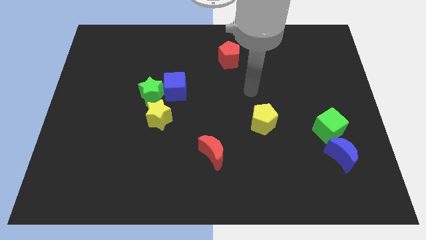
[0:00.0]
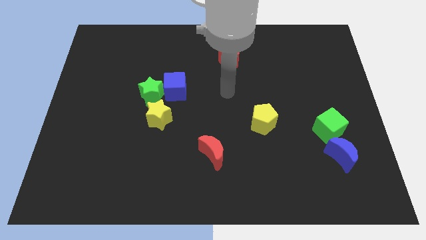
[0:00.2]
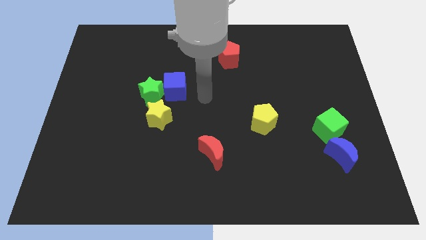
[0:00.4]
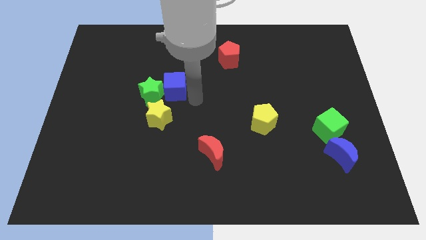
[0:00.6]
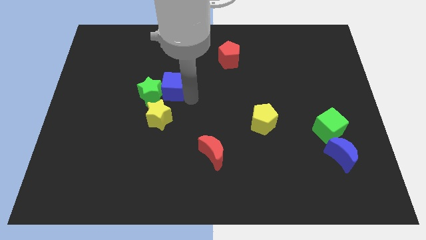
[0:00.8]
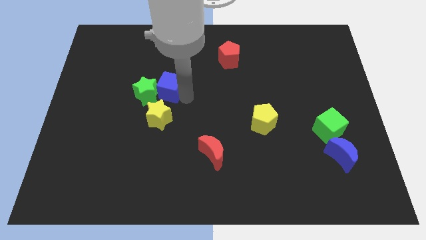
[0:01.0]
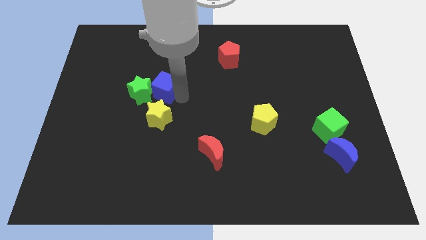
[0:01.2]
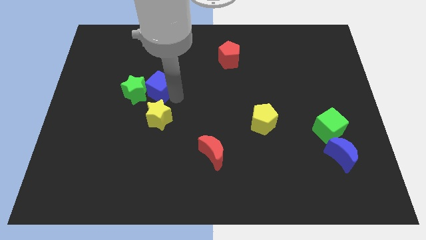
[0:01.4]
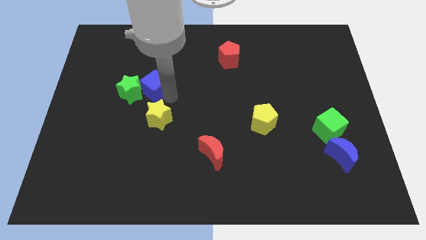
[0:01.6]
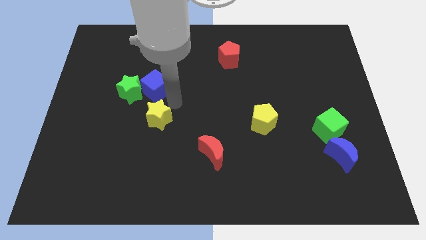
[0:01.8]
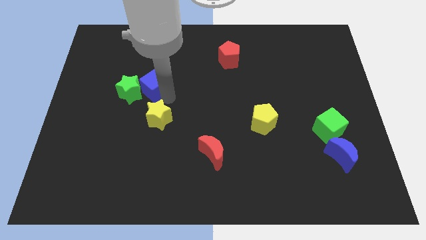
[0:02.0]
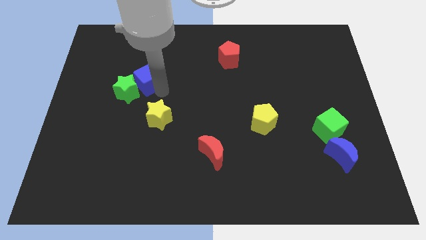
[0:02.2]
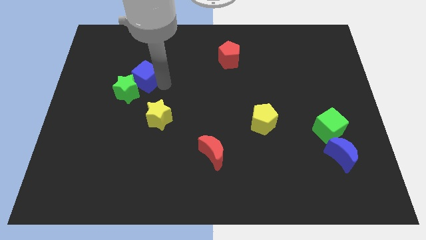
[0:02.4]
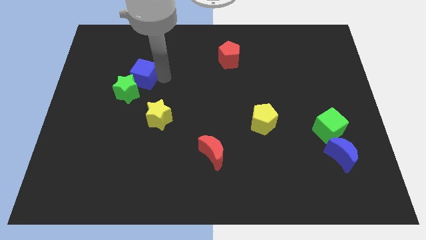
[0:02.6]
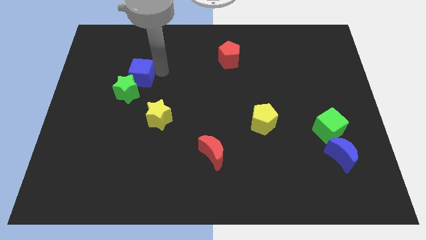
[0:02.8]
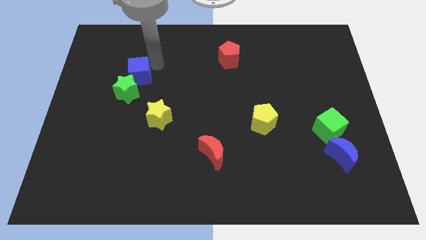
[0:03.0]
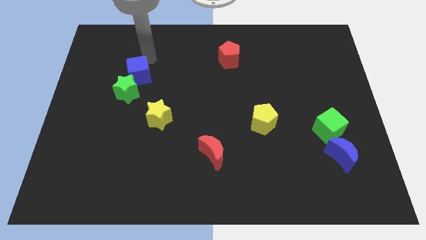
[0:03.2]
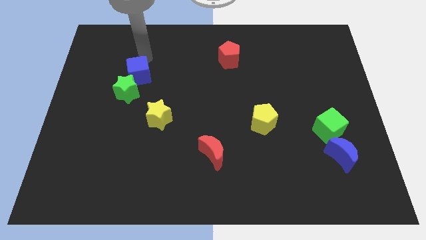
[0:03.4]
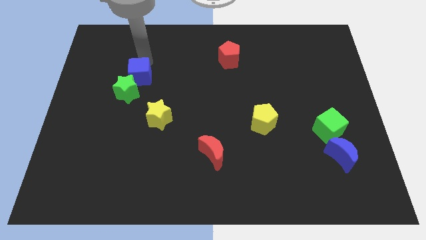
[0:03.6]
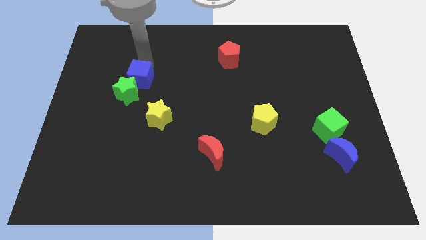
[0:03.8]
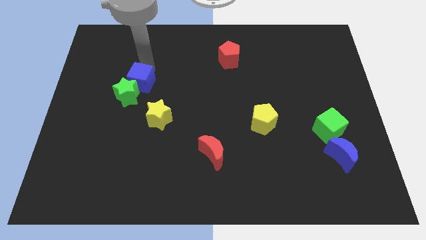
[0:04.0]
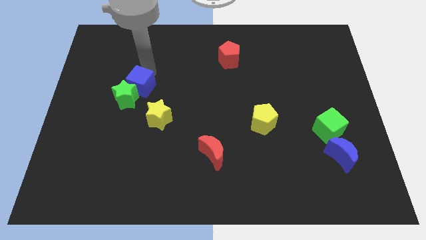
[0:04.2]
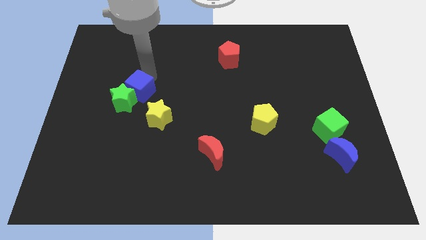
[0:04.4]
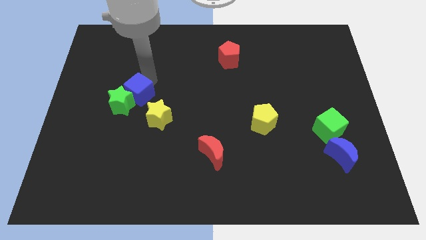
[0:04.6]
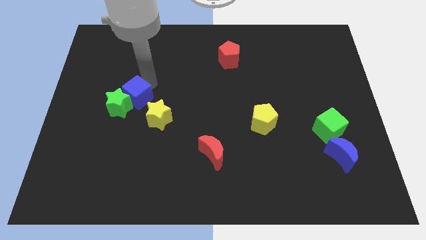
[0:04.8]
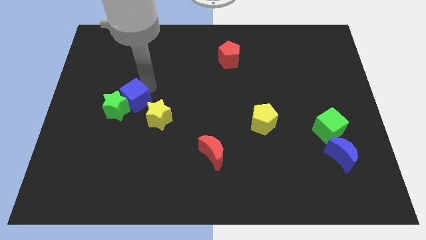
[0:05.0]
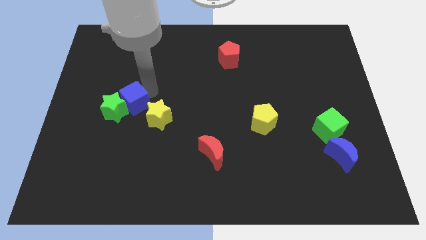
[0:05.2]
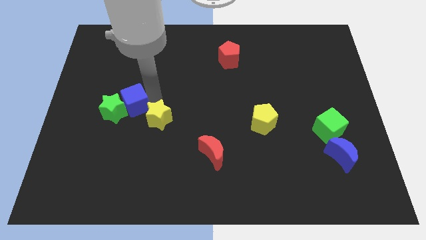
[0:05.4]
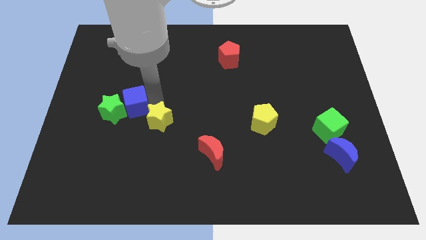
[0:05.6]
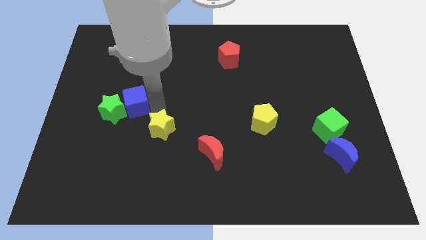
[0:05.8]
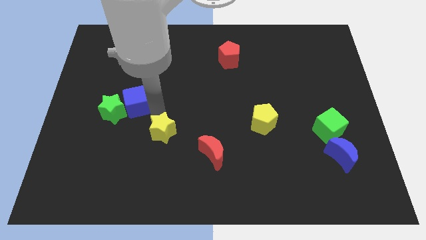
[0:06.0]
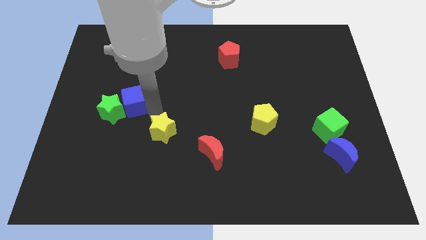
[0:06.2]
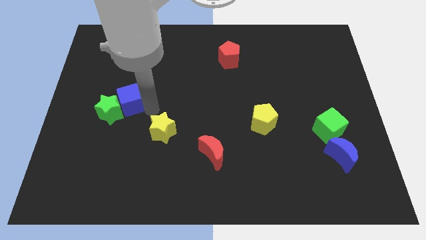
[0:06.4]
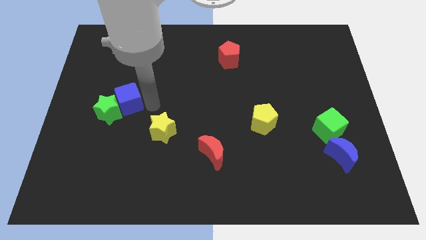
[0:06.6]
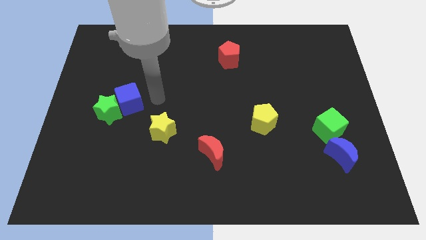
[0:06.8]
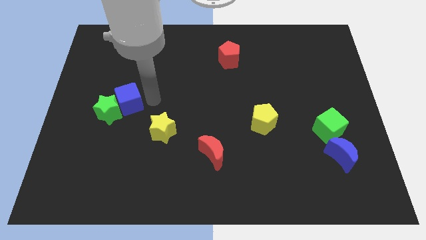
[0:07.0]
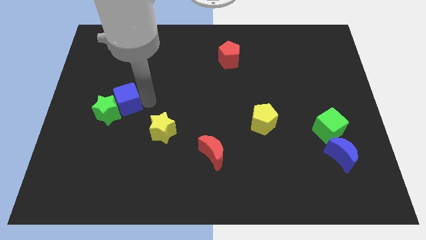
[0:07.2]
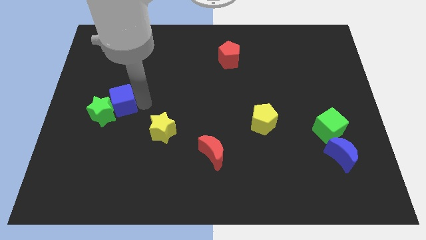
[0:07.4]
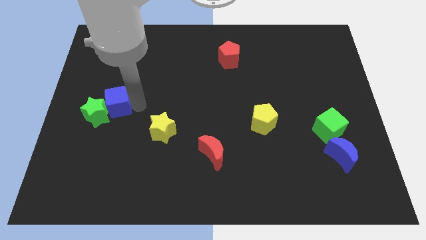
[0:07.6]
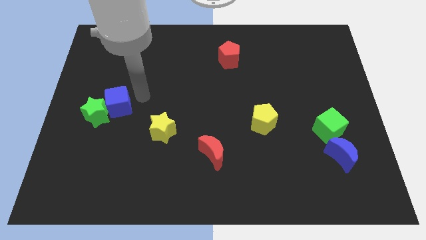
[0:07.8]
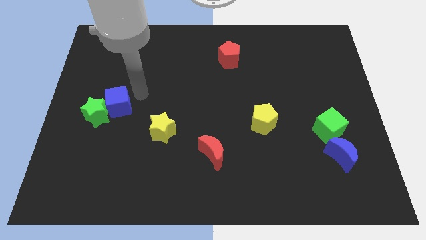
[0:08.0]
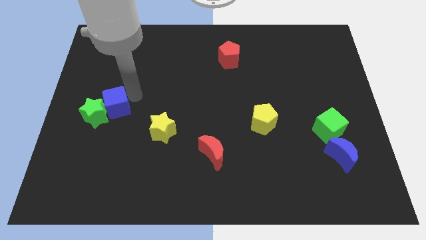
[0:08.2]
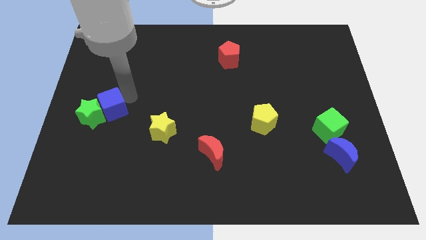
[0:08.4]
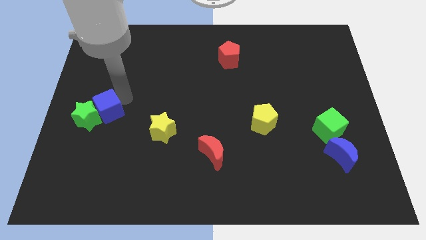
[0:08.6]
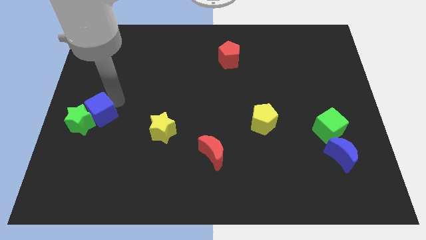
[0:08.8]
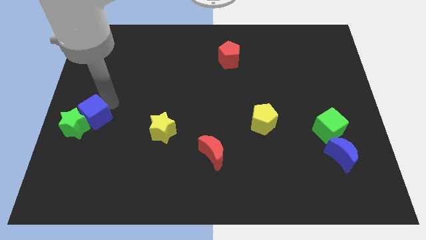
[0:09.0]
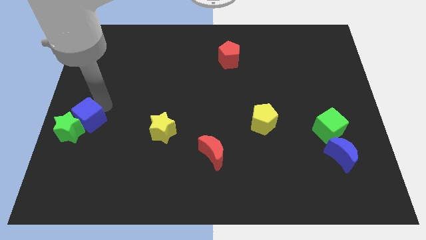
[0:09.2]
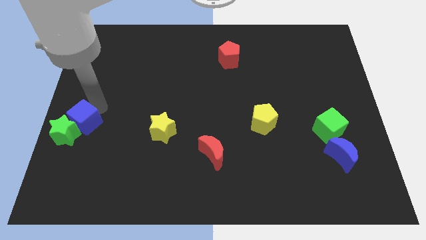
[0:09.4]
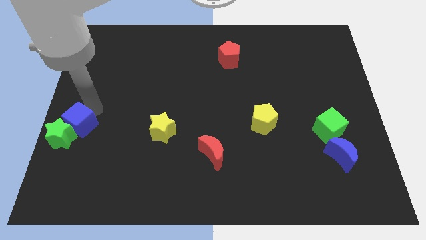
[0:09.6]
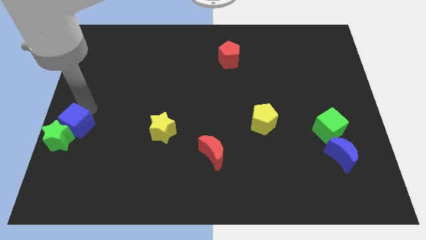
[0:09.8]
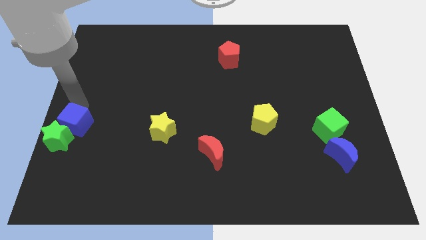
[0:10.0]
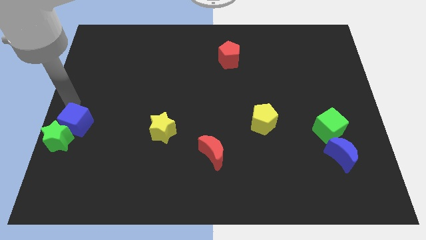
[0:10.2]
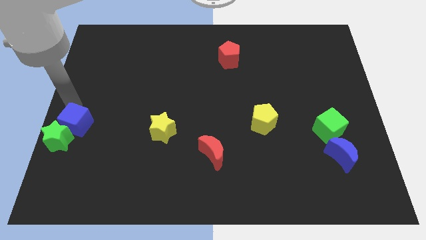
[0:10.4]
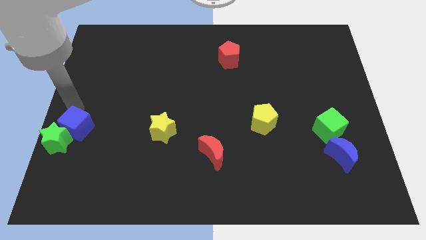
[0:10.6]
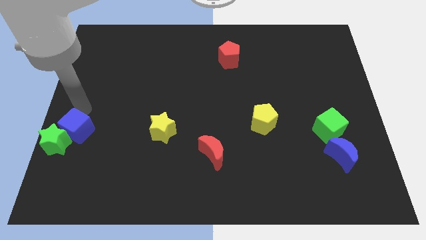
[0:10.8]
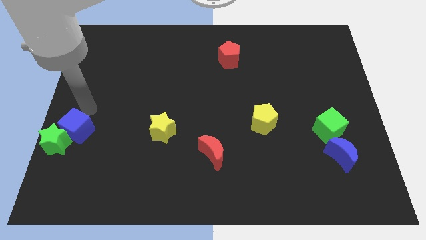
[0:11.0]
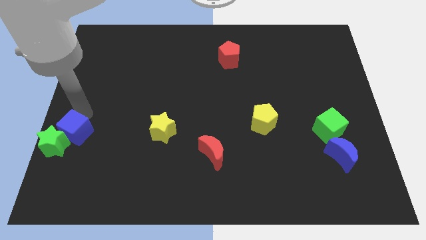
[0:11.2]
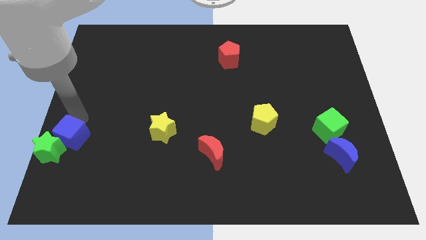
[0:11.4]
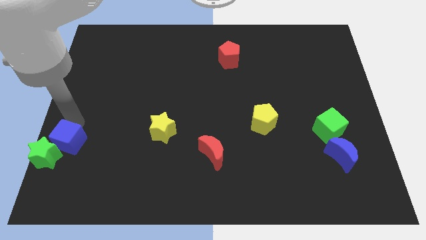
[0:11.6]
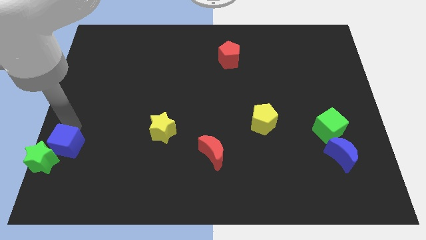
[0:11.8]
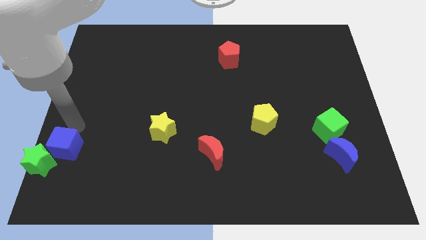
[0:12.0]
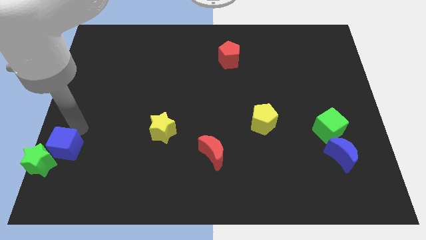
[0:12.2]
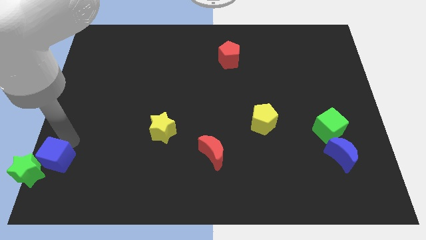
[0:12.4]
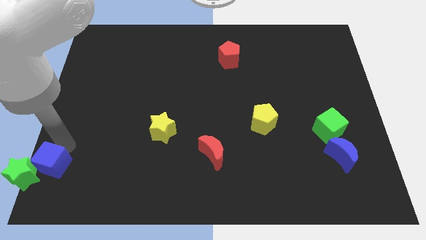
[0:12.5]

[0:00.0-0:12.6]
move the blue cube to the bottom left
